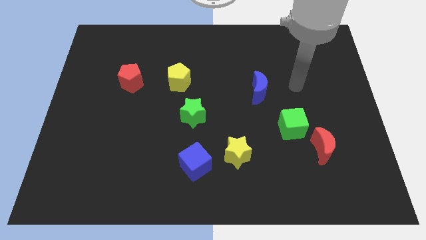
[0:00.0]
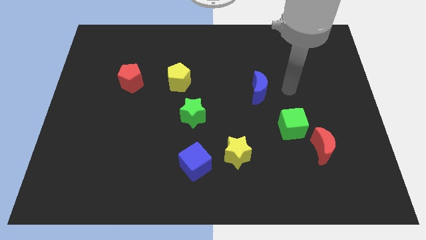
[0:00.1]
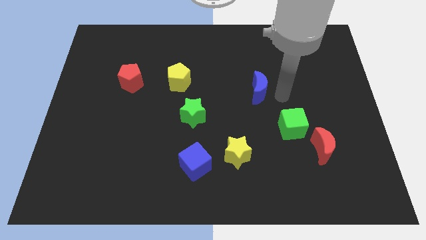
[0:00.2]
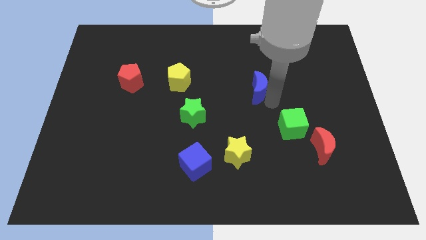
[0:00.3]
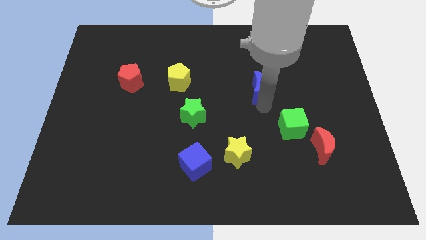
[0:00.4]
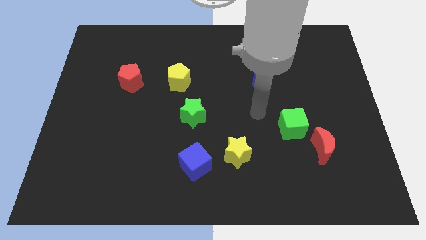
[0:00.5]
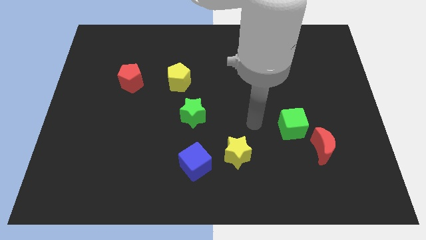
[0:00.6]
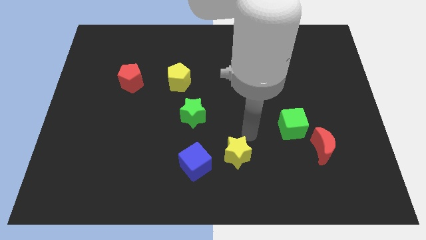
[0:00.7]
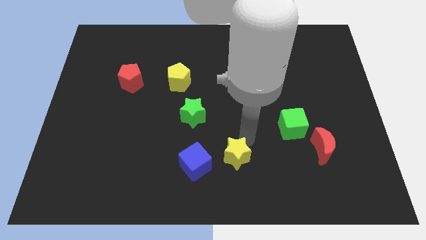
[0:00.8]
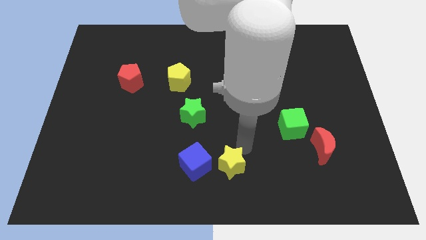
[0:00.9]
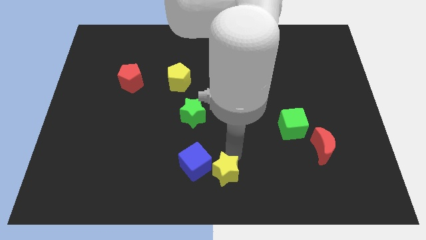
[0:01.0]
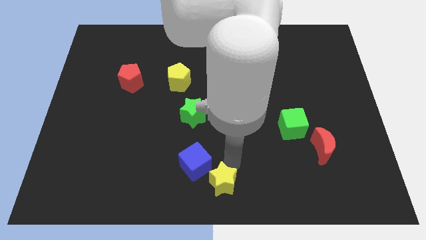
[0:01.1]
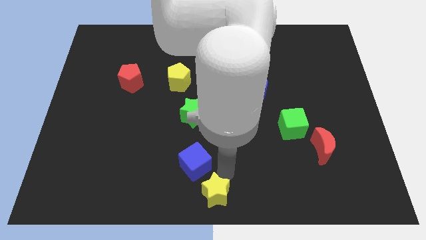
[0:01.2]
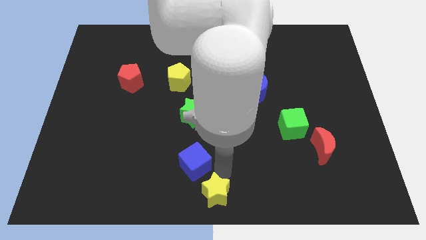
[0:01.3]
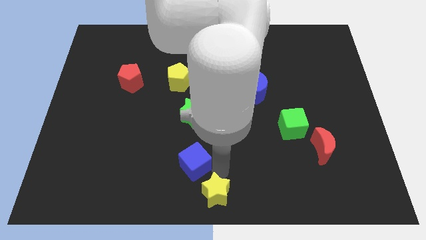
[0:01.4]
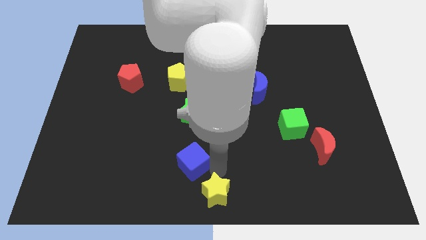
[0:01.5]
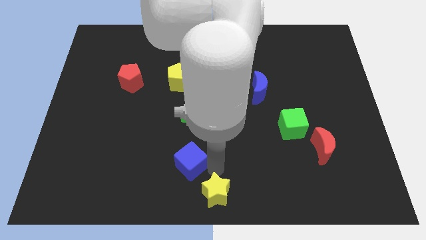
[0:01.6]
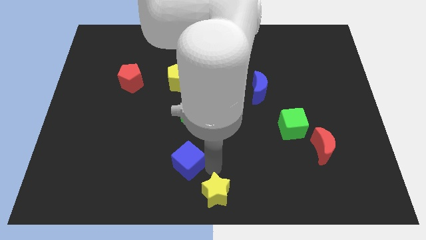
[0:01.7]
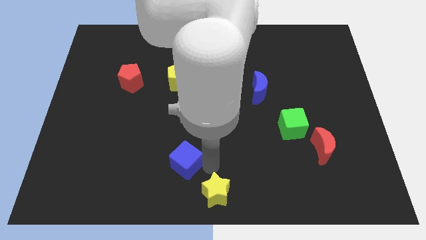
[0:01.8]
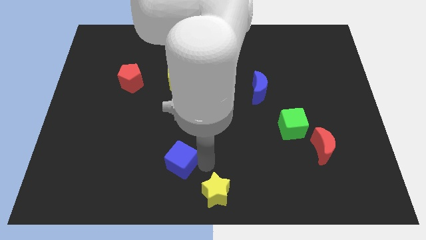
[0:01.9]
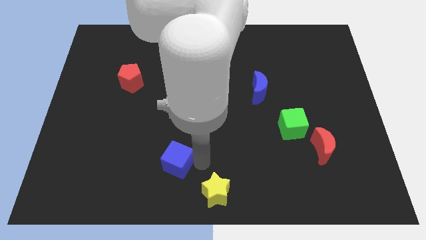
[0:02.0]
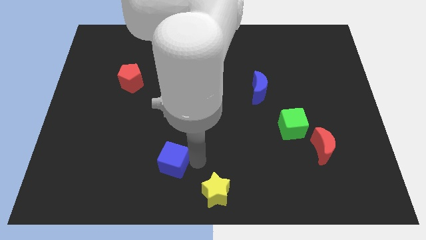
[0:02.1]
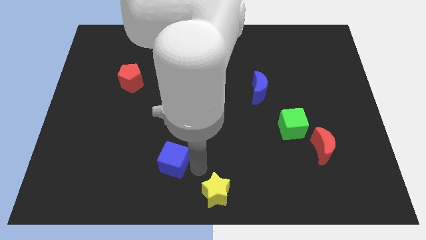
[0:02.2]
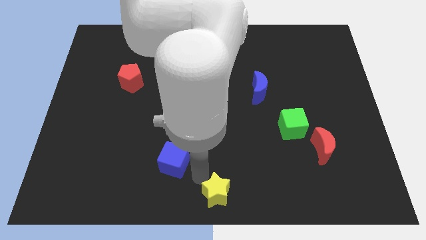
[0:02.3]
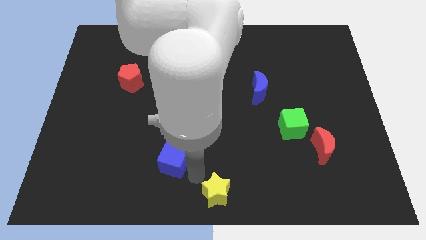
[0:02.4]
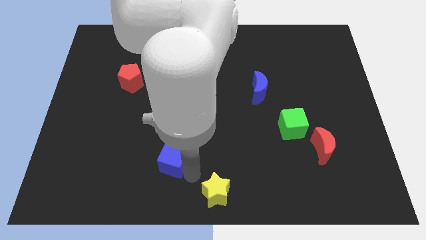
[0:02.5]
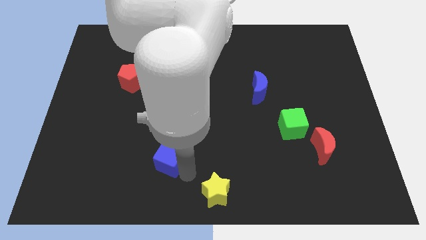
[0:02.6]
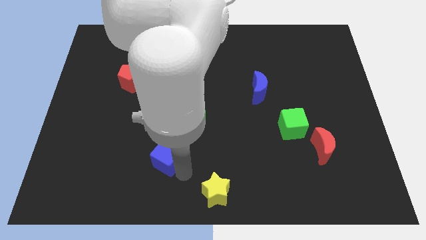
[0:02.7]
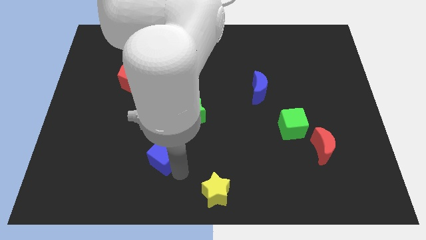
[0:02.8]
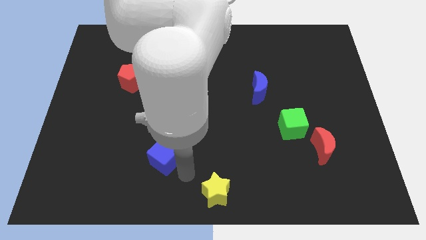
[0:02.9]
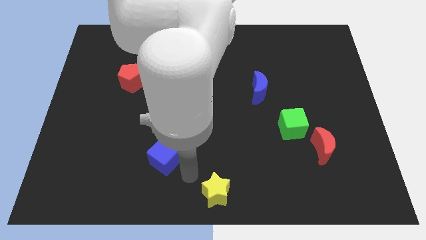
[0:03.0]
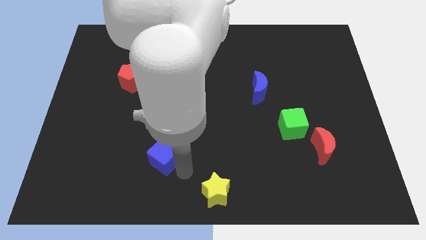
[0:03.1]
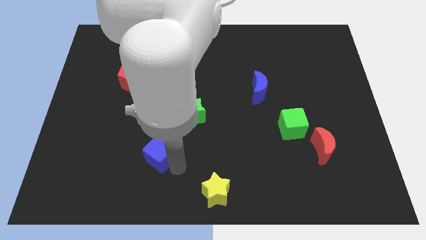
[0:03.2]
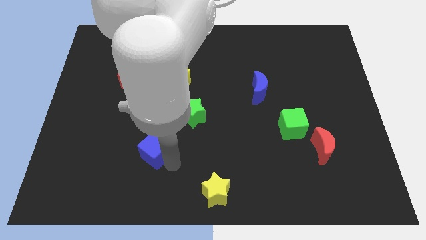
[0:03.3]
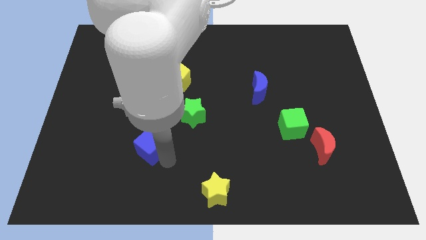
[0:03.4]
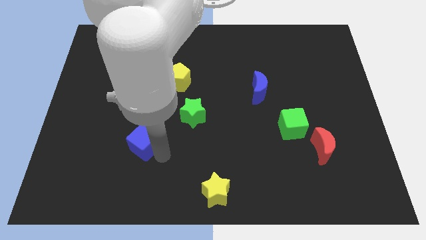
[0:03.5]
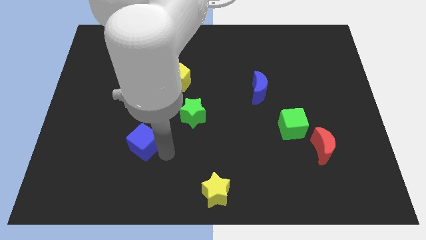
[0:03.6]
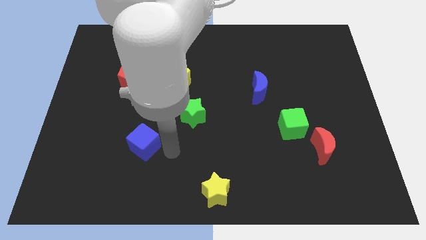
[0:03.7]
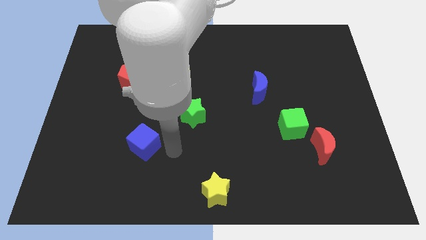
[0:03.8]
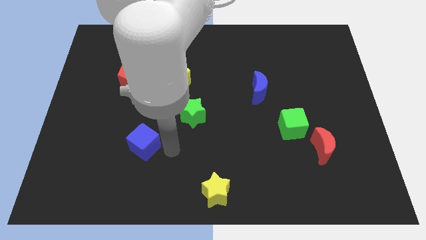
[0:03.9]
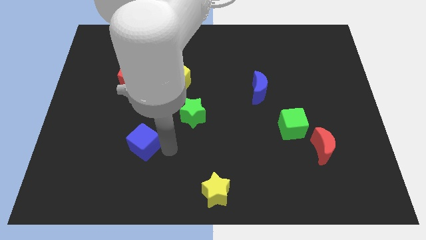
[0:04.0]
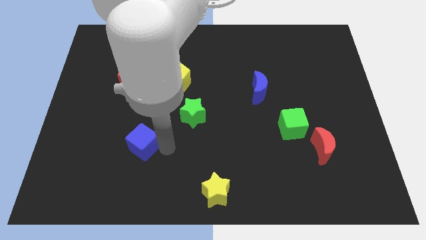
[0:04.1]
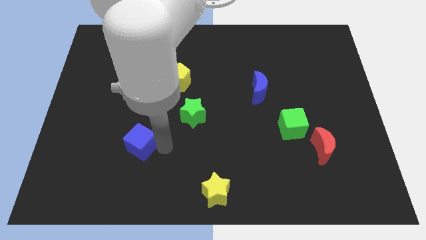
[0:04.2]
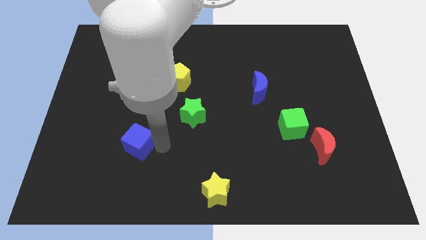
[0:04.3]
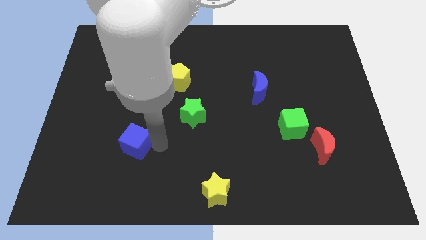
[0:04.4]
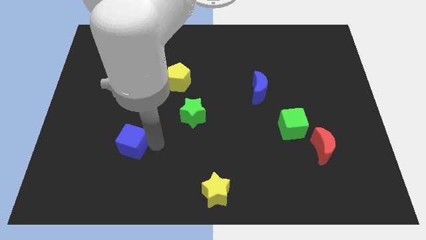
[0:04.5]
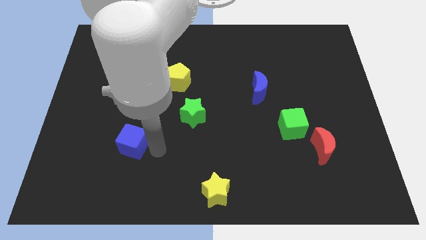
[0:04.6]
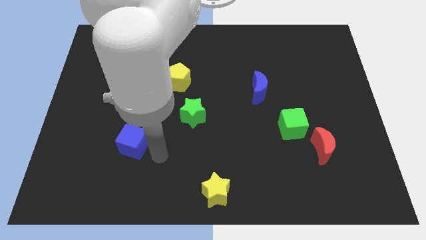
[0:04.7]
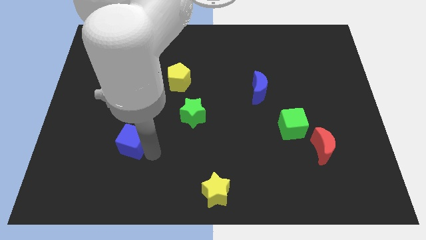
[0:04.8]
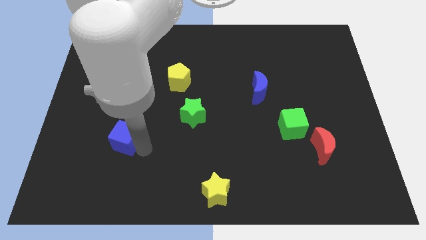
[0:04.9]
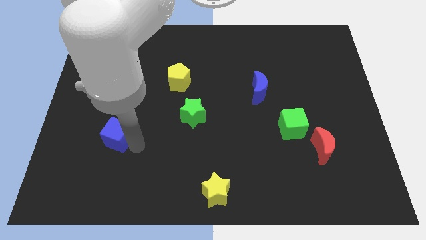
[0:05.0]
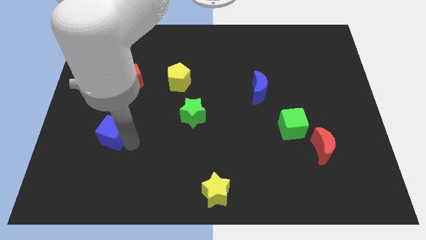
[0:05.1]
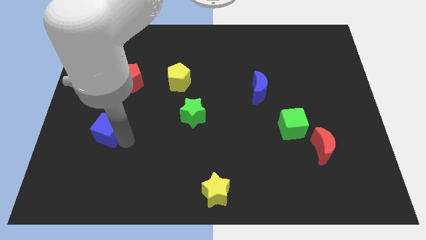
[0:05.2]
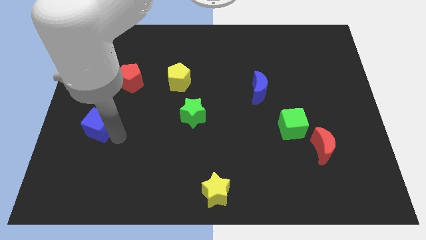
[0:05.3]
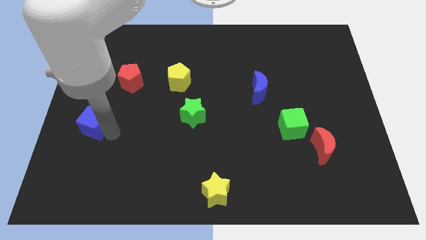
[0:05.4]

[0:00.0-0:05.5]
slide the blue cube to the left side

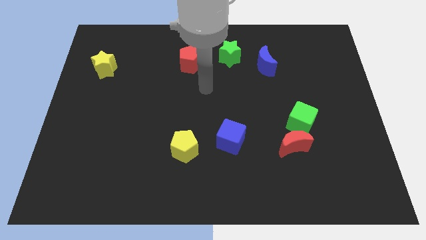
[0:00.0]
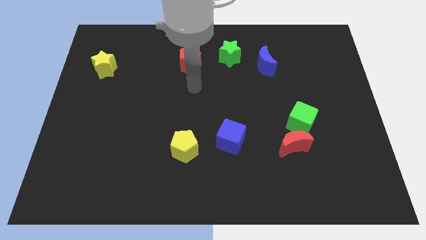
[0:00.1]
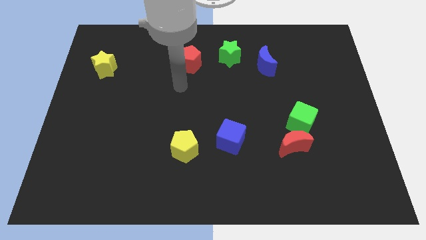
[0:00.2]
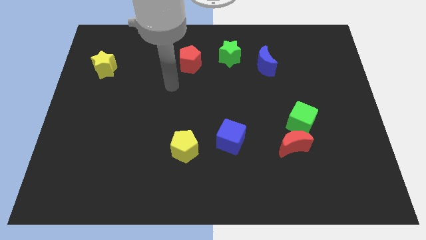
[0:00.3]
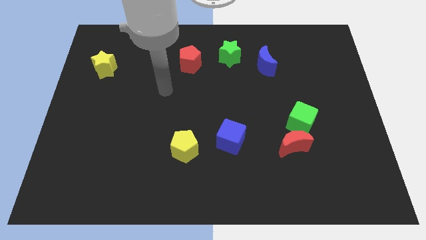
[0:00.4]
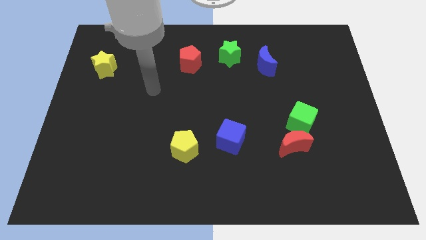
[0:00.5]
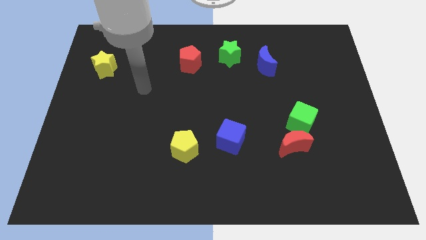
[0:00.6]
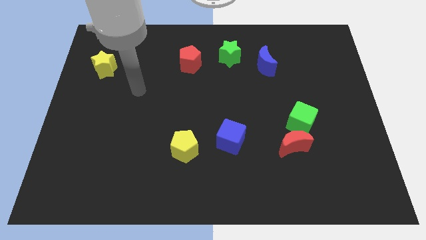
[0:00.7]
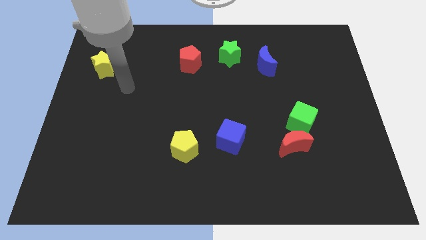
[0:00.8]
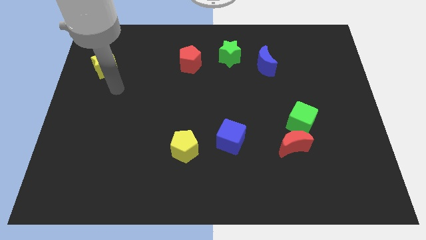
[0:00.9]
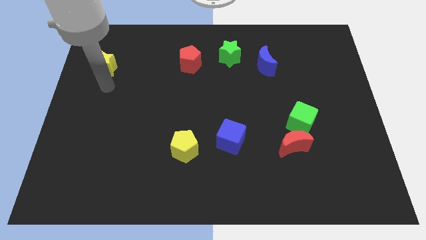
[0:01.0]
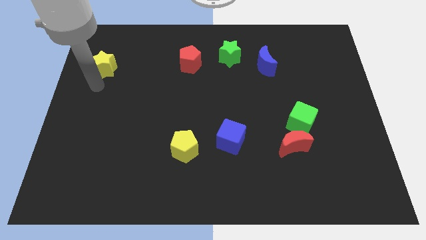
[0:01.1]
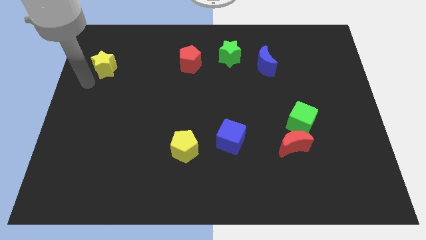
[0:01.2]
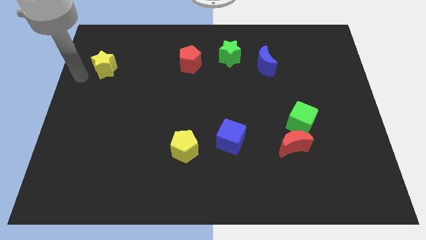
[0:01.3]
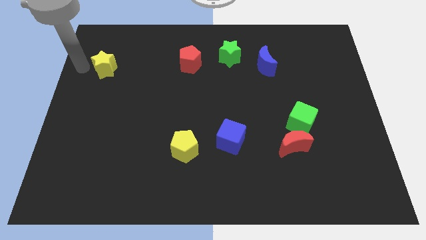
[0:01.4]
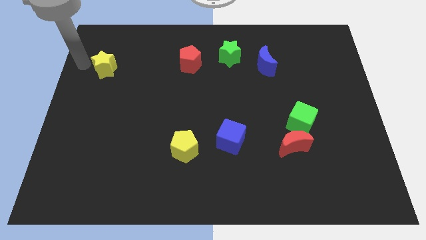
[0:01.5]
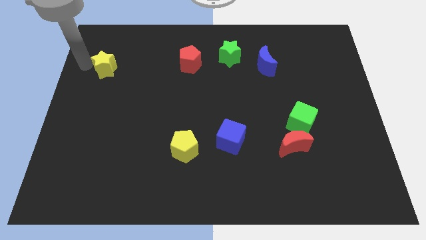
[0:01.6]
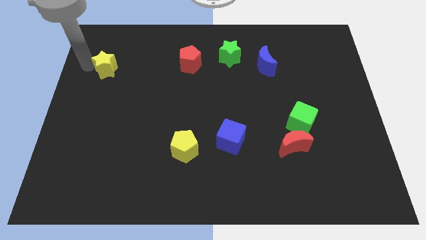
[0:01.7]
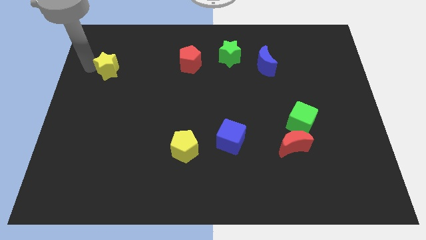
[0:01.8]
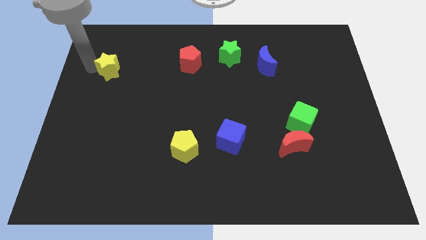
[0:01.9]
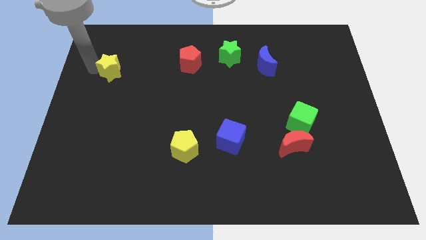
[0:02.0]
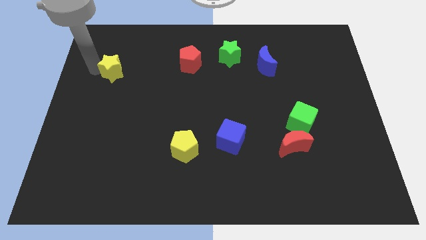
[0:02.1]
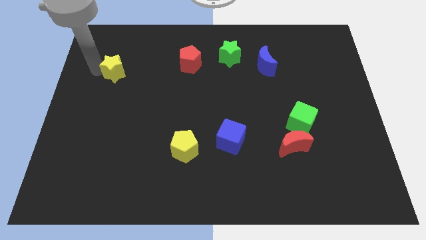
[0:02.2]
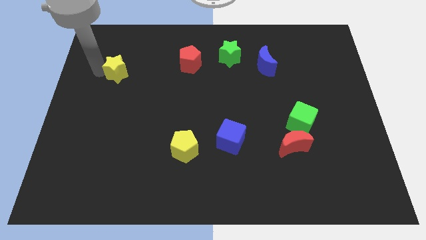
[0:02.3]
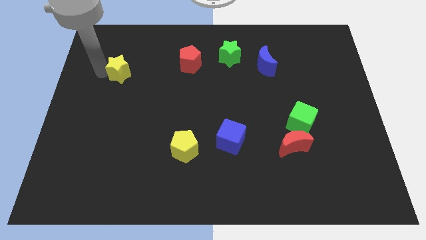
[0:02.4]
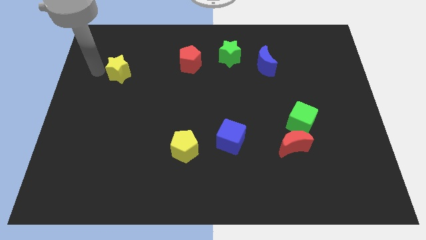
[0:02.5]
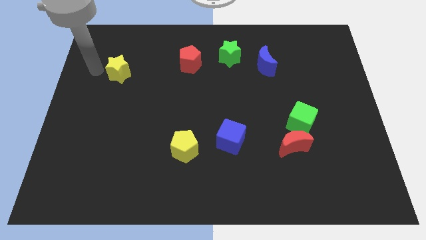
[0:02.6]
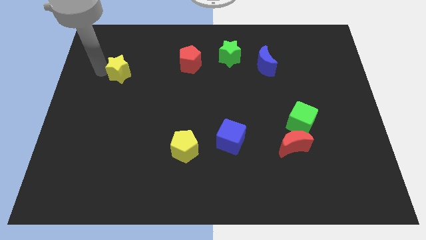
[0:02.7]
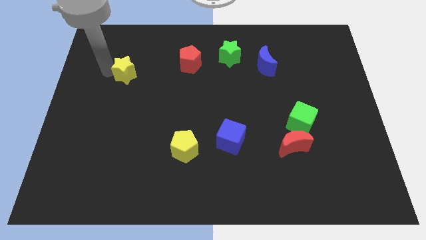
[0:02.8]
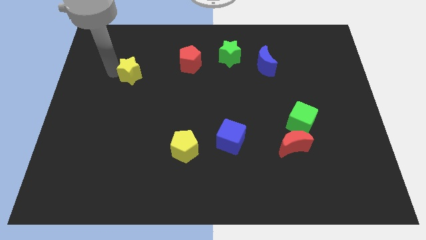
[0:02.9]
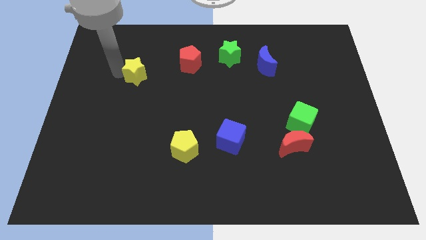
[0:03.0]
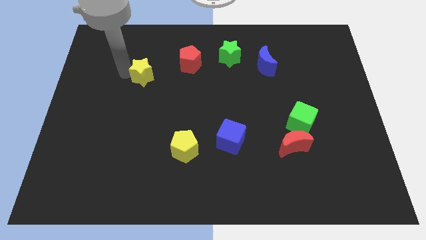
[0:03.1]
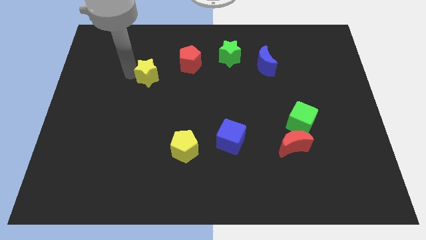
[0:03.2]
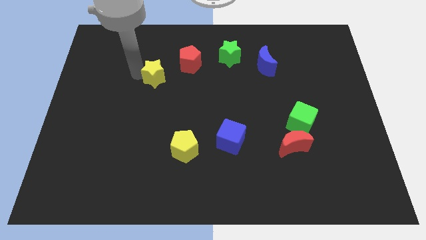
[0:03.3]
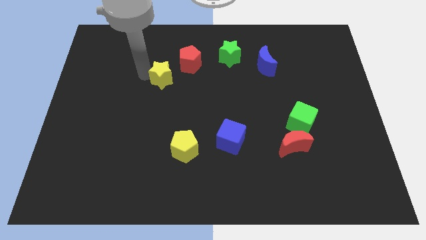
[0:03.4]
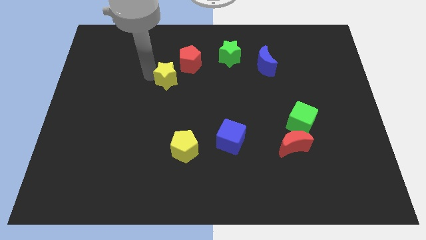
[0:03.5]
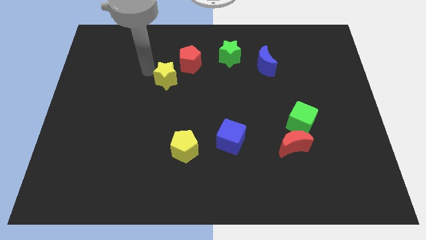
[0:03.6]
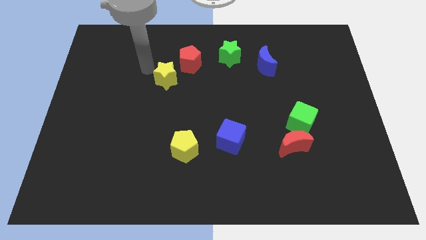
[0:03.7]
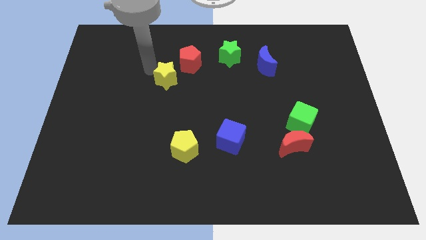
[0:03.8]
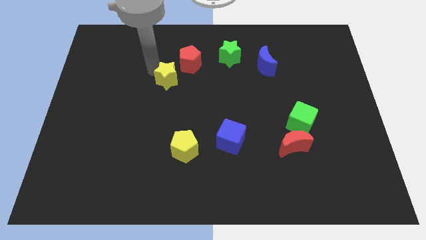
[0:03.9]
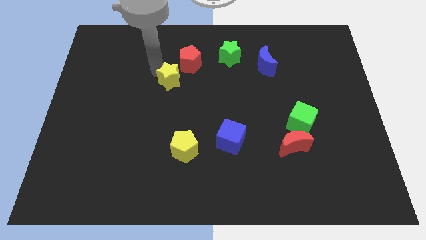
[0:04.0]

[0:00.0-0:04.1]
move the yellow star to the center of the board
